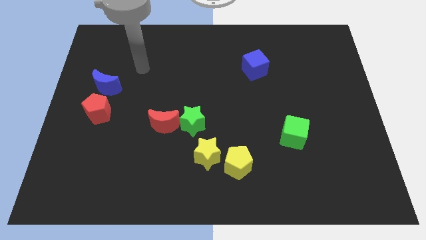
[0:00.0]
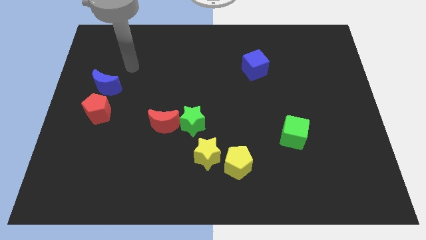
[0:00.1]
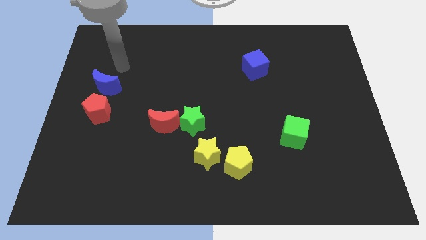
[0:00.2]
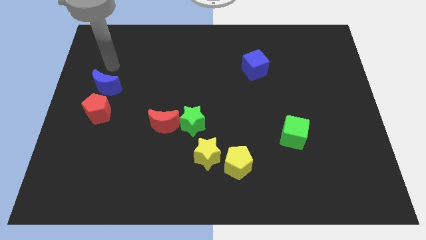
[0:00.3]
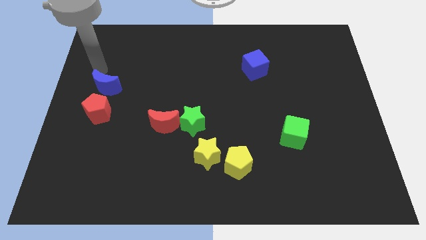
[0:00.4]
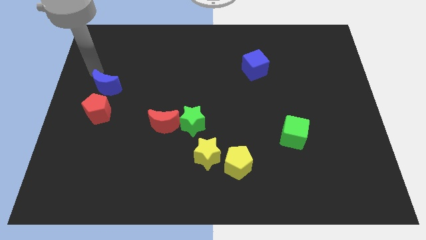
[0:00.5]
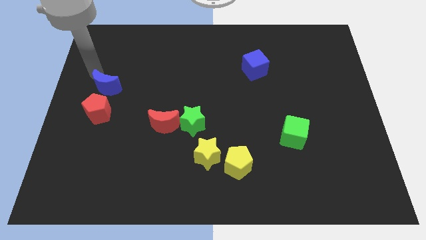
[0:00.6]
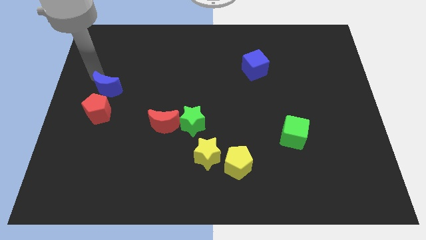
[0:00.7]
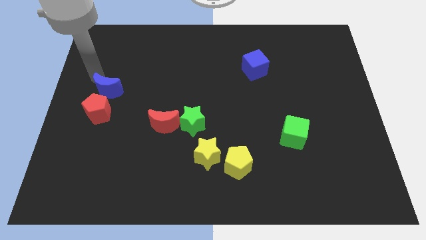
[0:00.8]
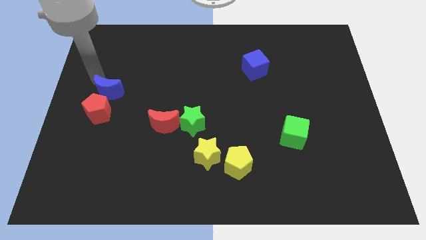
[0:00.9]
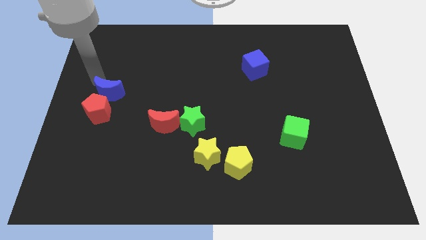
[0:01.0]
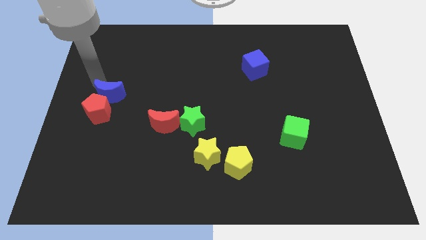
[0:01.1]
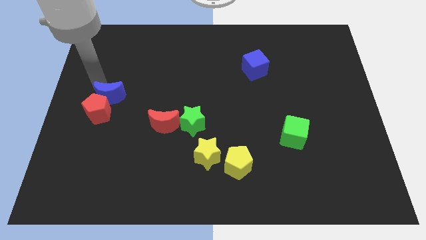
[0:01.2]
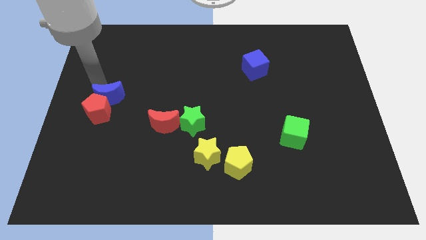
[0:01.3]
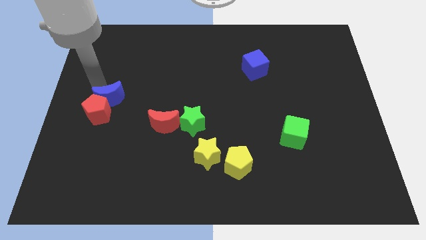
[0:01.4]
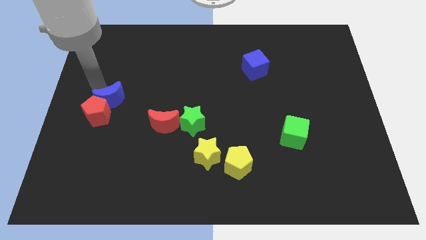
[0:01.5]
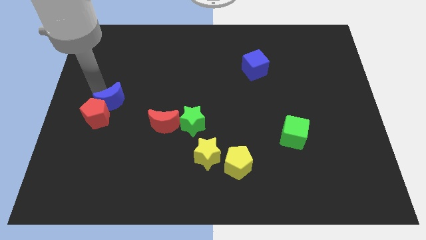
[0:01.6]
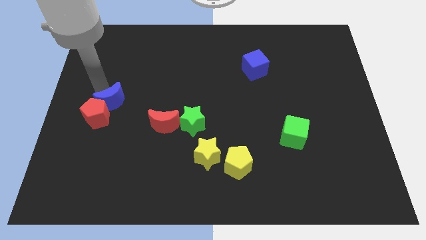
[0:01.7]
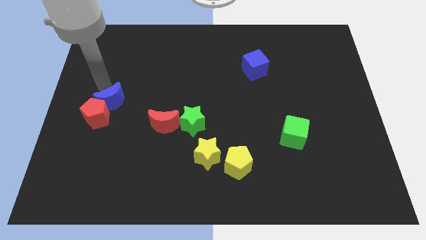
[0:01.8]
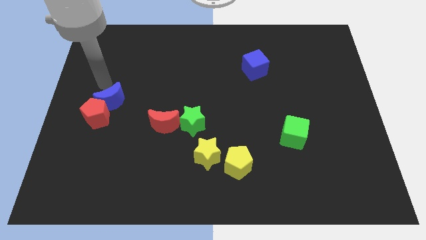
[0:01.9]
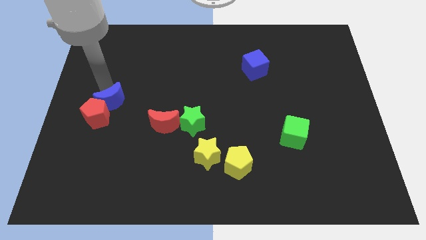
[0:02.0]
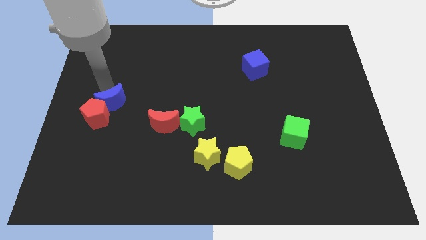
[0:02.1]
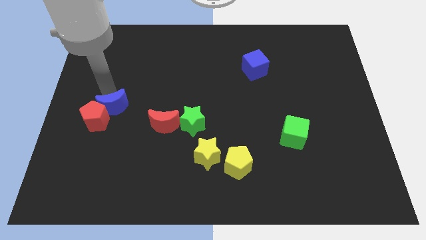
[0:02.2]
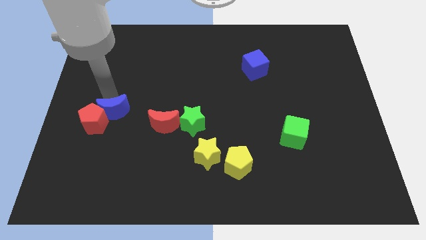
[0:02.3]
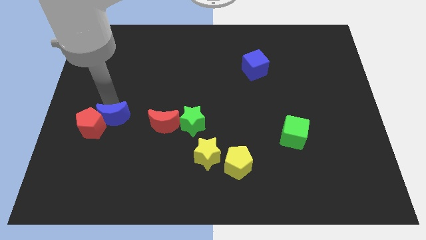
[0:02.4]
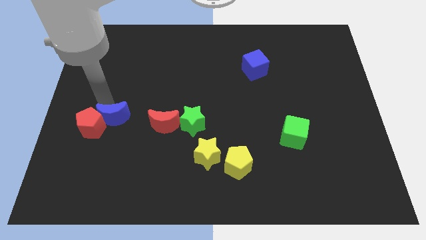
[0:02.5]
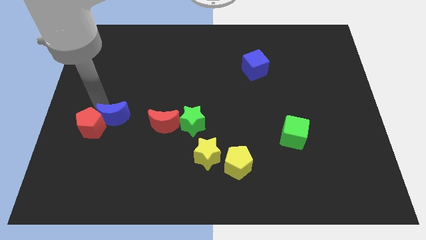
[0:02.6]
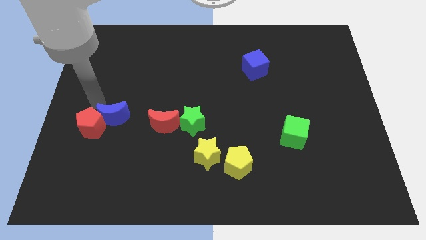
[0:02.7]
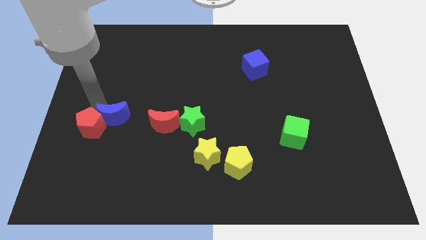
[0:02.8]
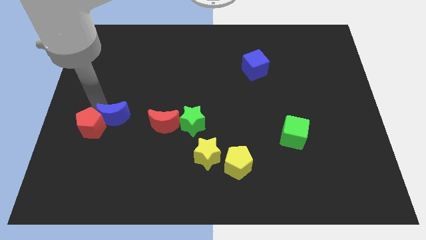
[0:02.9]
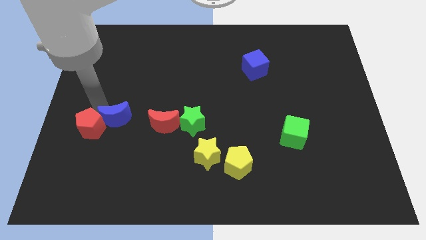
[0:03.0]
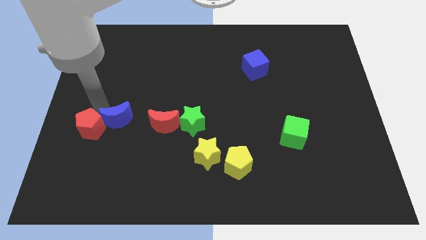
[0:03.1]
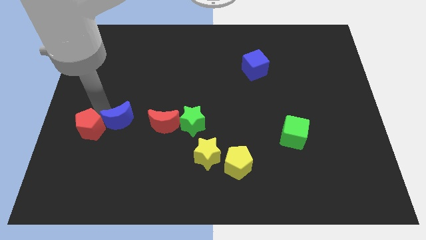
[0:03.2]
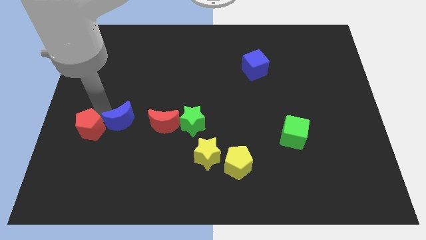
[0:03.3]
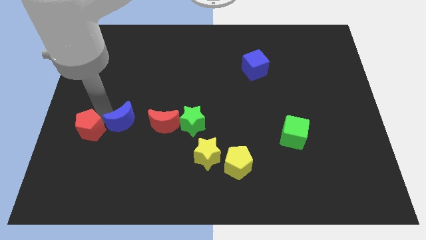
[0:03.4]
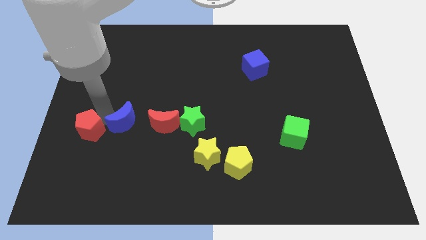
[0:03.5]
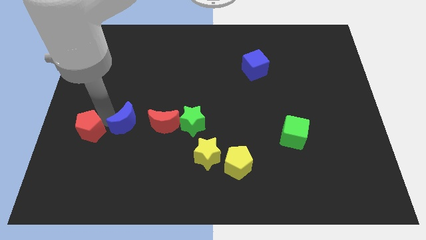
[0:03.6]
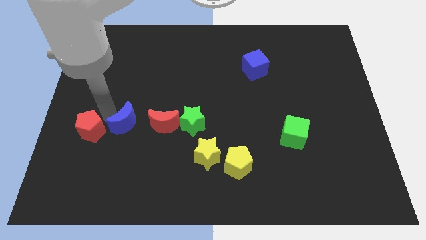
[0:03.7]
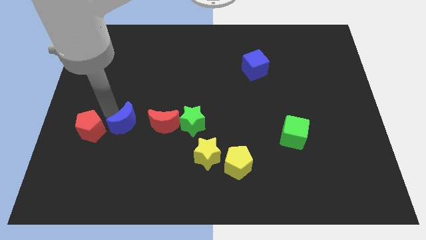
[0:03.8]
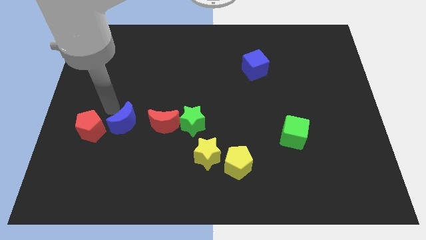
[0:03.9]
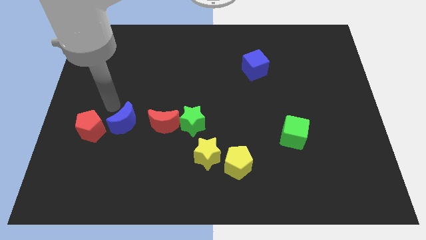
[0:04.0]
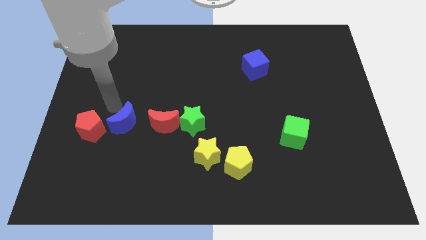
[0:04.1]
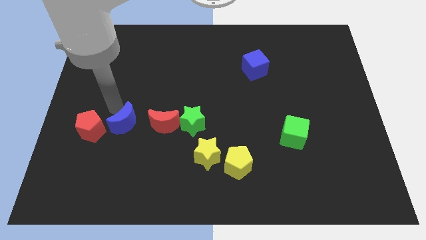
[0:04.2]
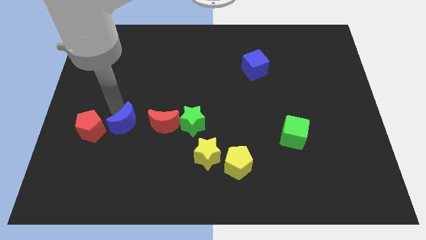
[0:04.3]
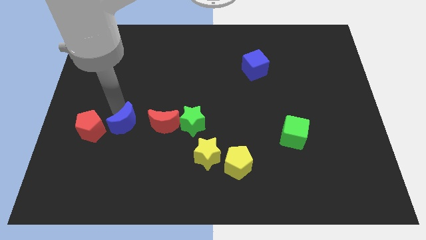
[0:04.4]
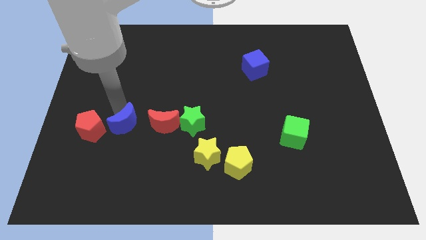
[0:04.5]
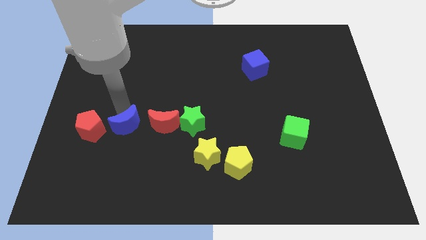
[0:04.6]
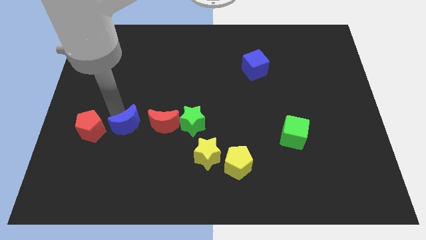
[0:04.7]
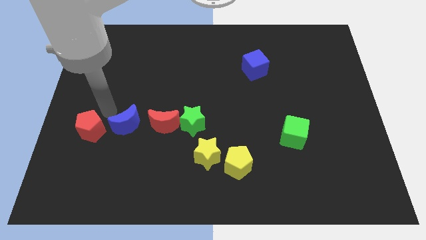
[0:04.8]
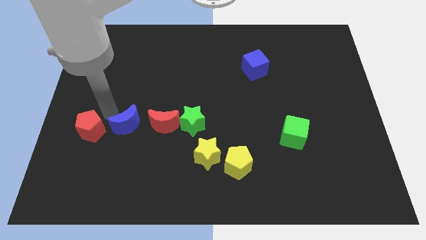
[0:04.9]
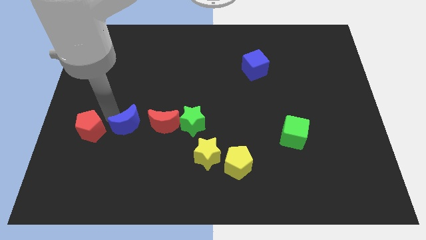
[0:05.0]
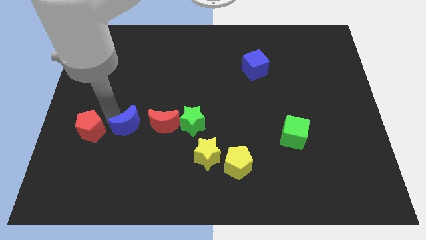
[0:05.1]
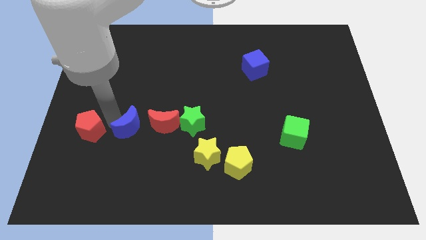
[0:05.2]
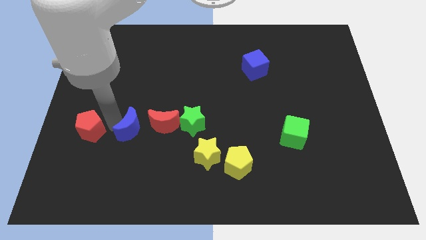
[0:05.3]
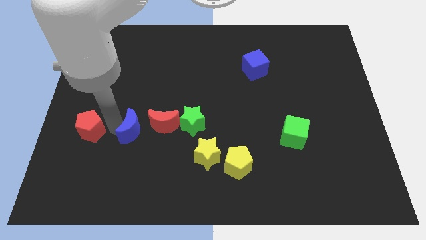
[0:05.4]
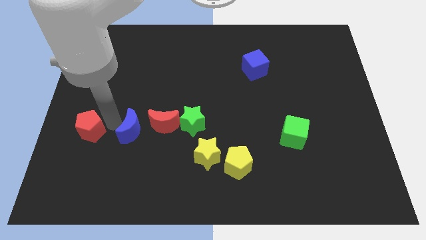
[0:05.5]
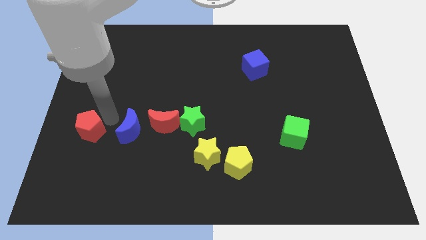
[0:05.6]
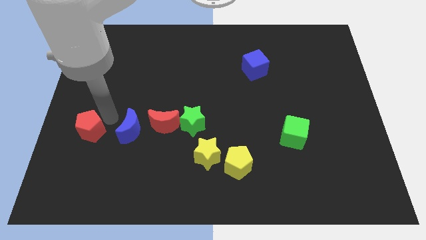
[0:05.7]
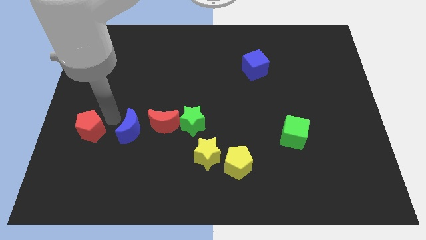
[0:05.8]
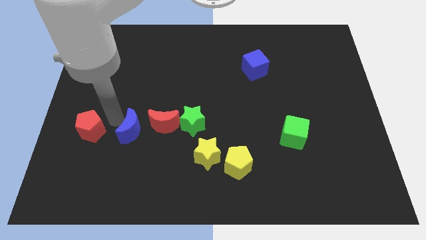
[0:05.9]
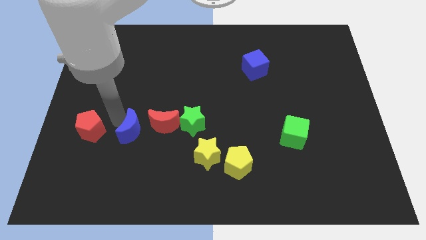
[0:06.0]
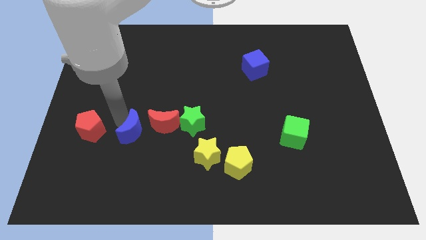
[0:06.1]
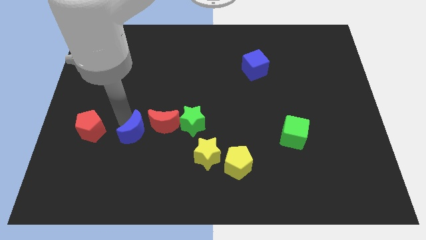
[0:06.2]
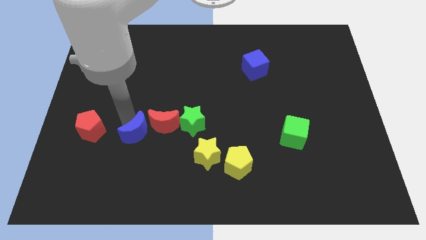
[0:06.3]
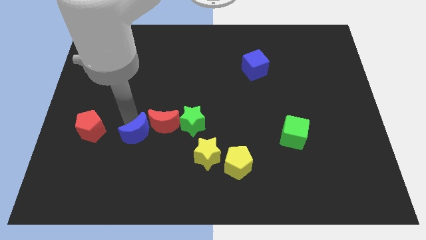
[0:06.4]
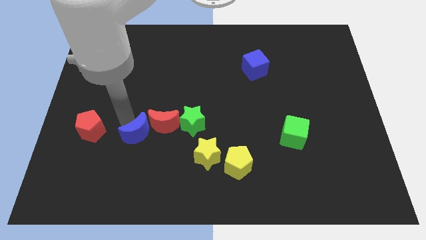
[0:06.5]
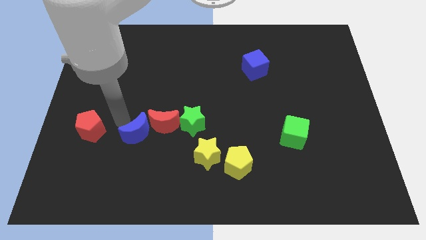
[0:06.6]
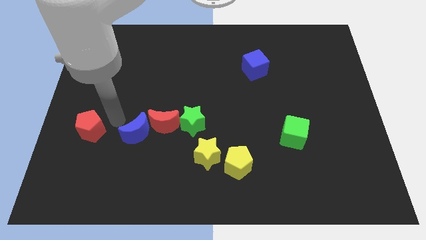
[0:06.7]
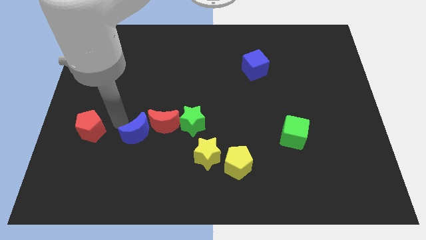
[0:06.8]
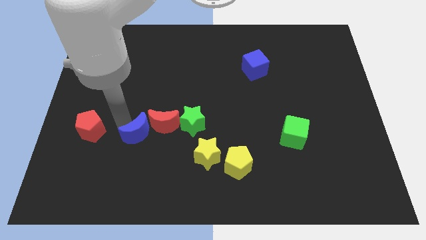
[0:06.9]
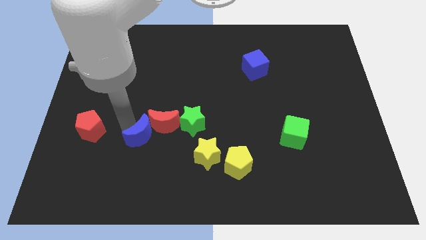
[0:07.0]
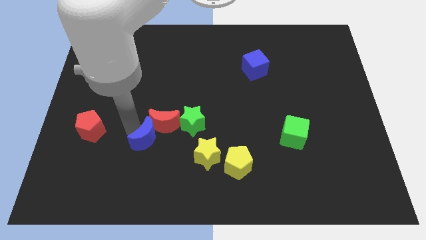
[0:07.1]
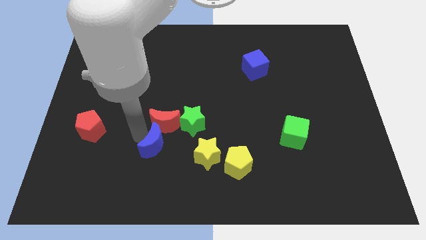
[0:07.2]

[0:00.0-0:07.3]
push the blue moon downwards and to the right diagonally

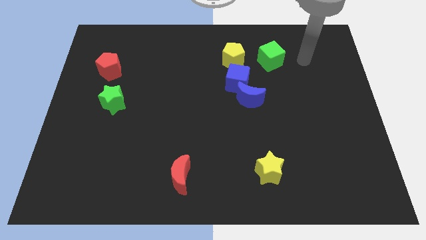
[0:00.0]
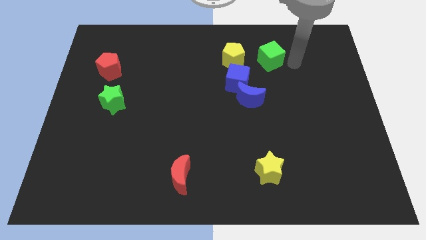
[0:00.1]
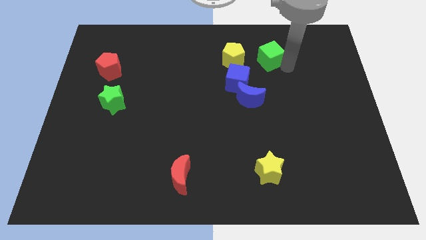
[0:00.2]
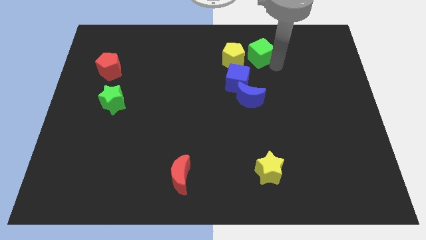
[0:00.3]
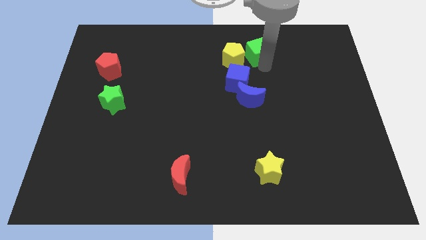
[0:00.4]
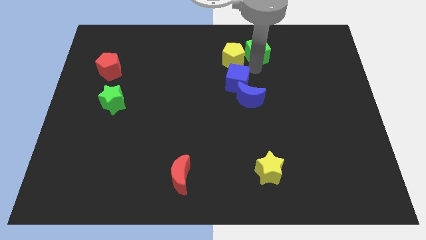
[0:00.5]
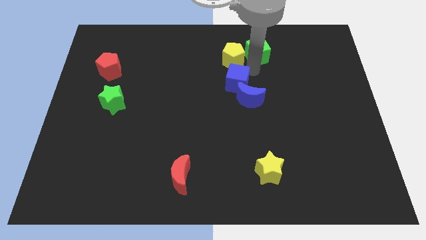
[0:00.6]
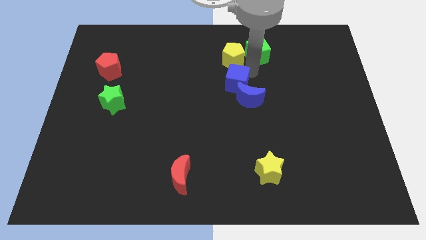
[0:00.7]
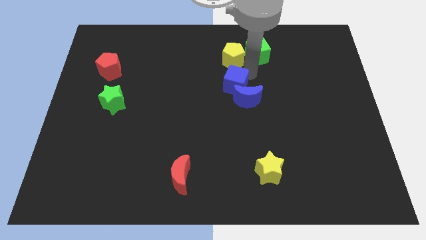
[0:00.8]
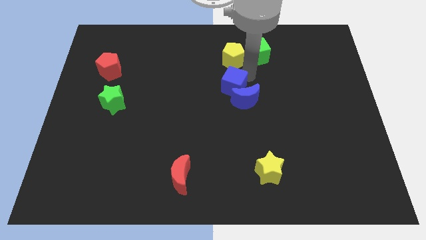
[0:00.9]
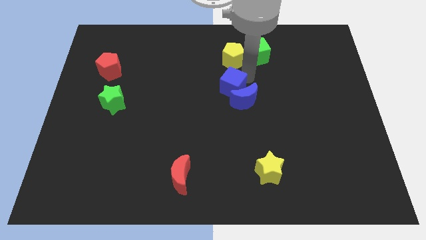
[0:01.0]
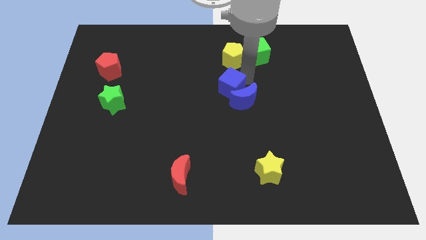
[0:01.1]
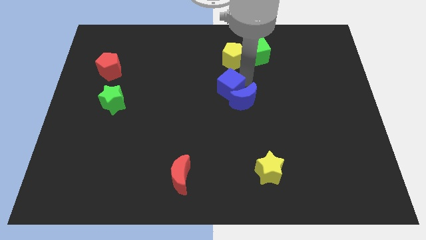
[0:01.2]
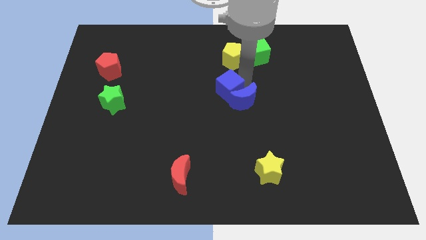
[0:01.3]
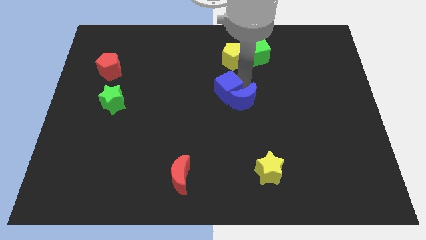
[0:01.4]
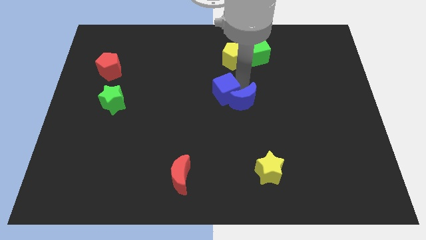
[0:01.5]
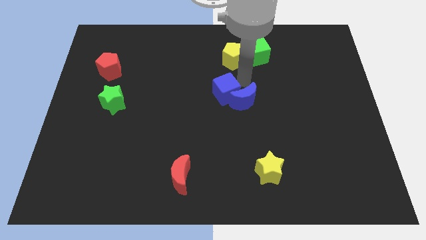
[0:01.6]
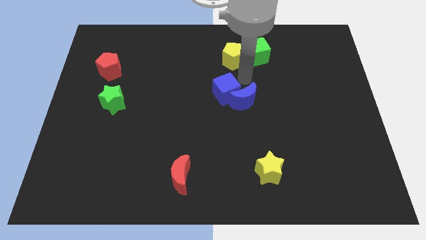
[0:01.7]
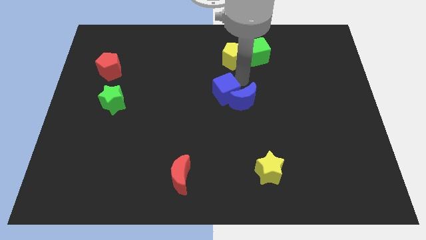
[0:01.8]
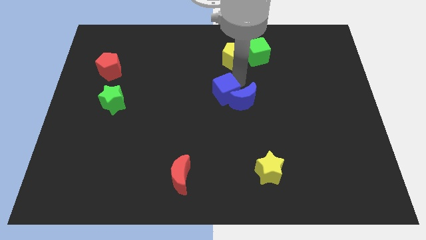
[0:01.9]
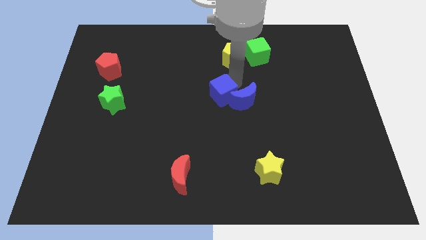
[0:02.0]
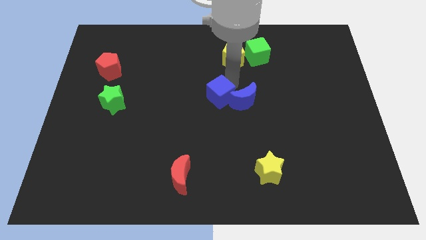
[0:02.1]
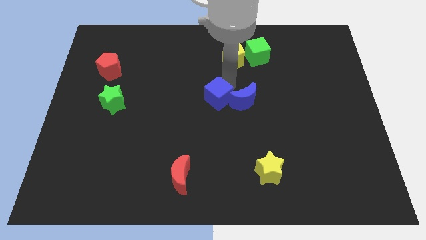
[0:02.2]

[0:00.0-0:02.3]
slightly push the blue cube downwards and to the left
